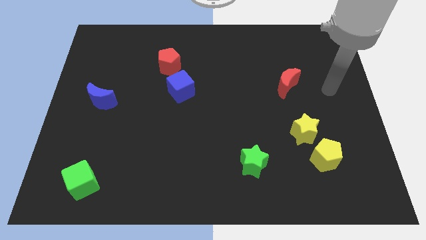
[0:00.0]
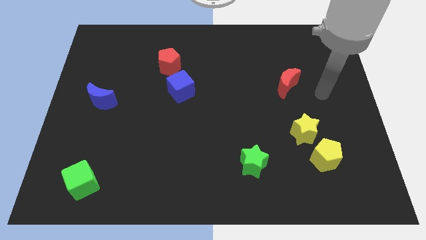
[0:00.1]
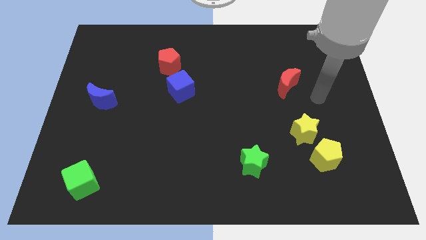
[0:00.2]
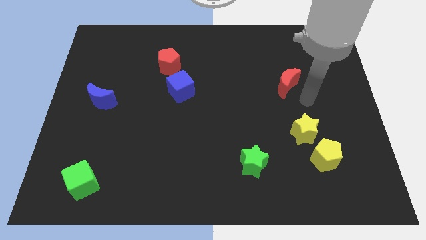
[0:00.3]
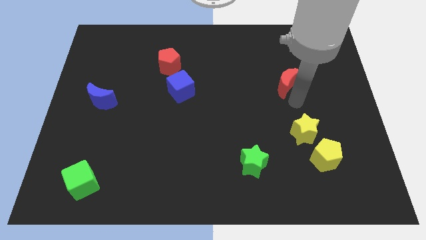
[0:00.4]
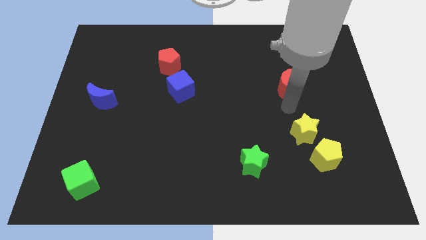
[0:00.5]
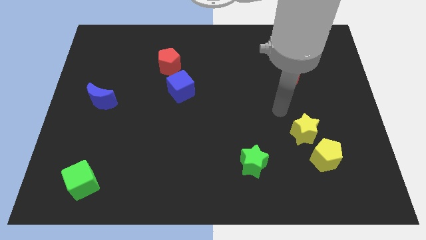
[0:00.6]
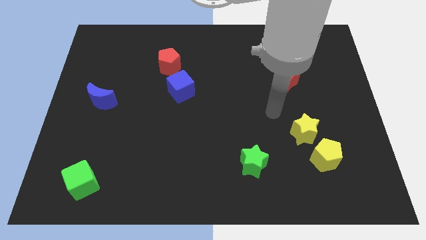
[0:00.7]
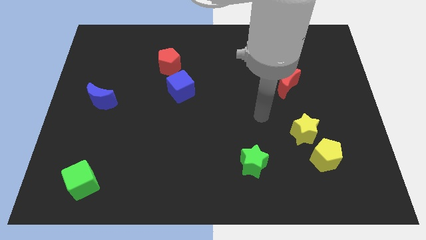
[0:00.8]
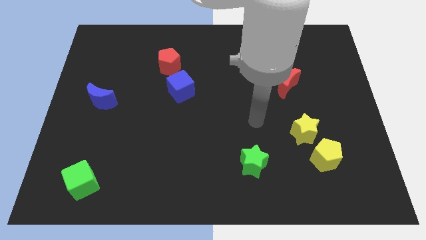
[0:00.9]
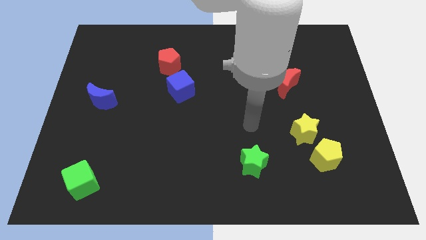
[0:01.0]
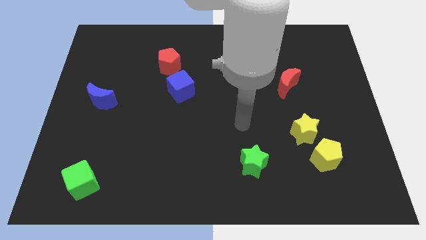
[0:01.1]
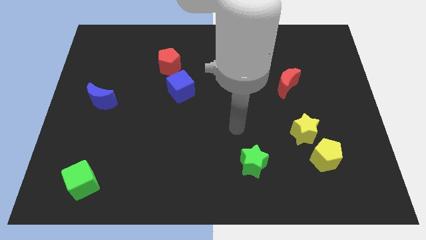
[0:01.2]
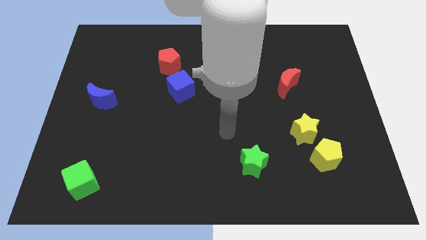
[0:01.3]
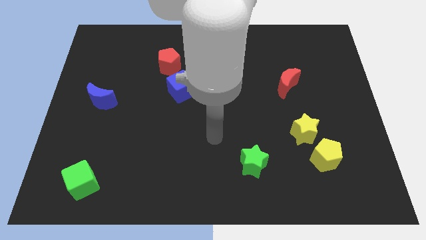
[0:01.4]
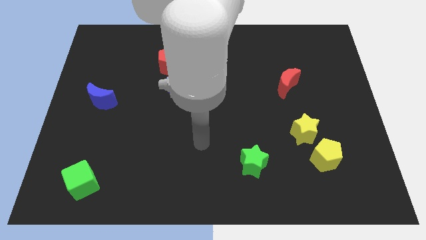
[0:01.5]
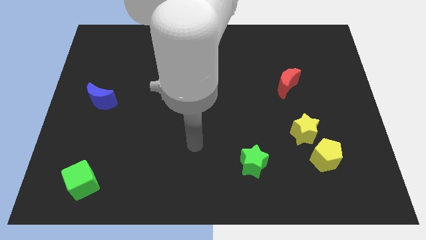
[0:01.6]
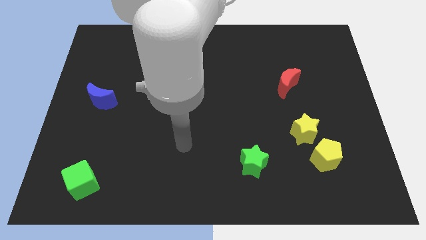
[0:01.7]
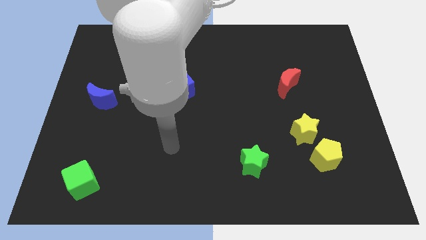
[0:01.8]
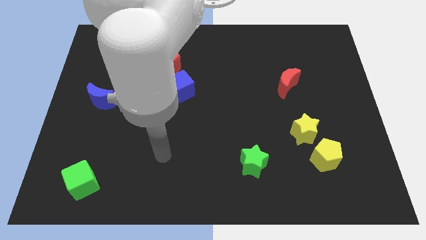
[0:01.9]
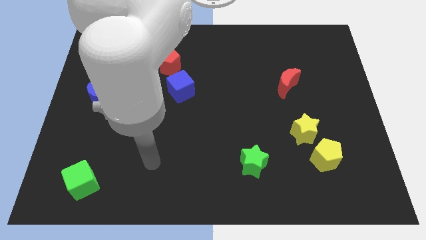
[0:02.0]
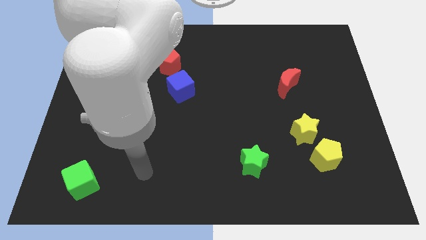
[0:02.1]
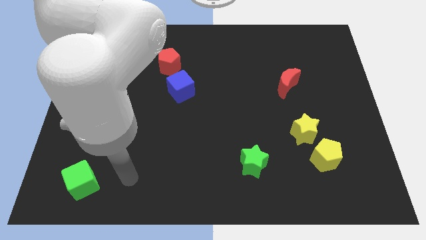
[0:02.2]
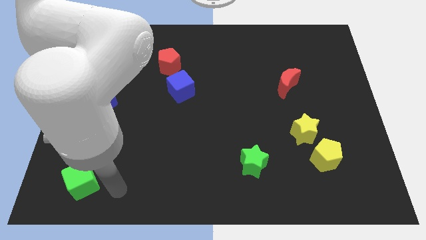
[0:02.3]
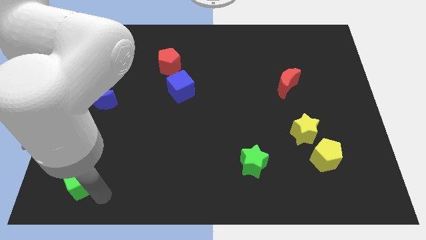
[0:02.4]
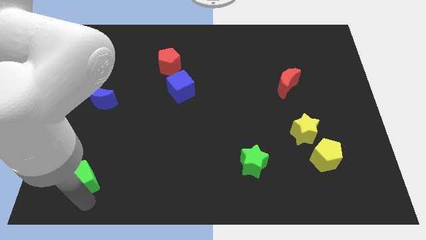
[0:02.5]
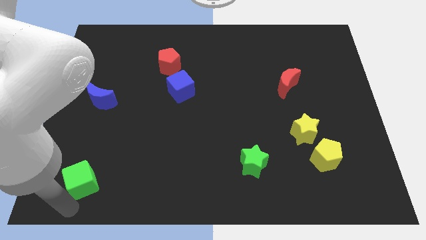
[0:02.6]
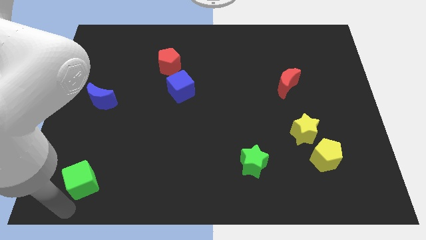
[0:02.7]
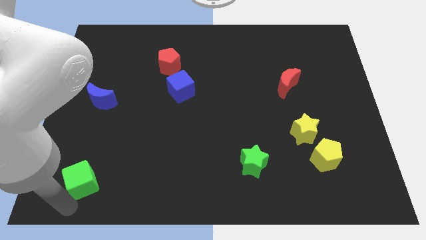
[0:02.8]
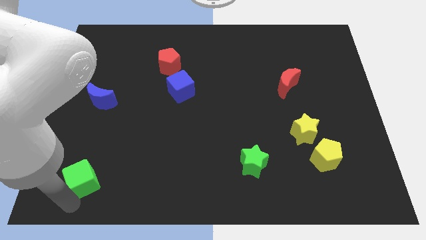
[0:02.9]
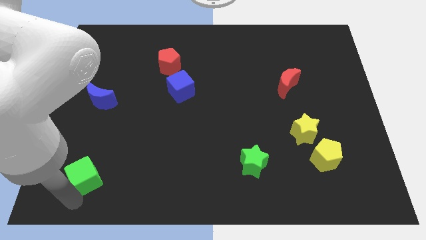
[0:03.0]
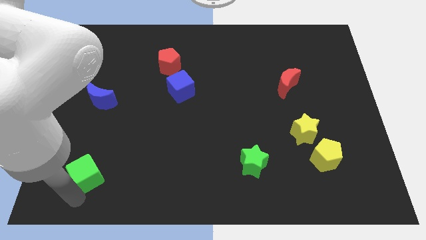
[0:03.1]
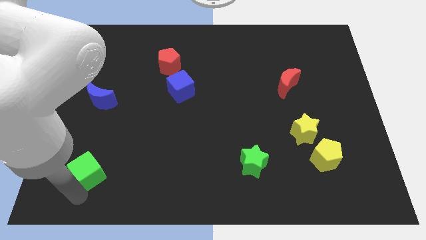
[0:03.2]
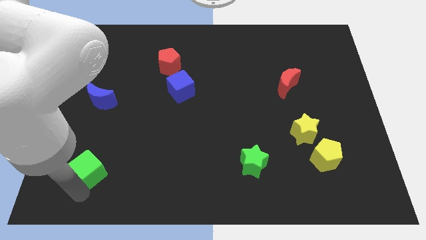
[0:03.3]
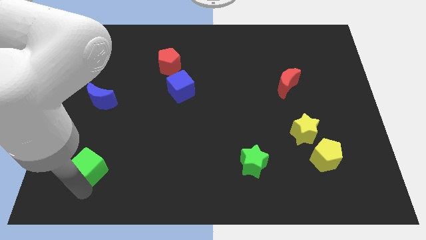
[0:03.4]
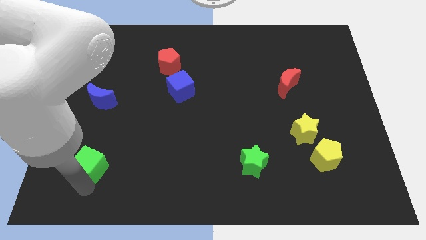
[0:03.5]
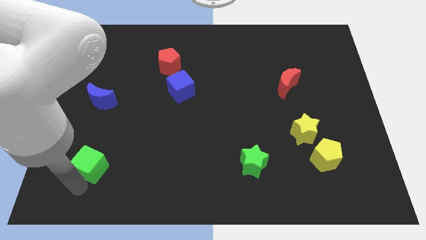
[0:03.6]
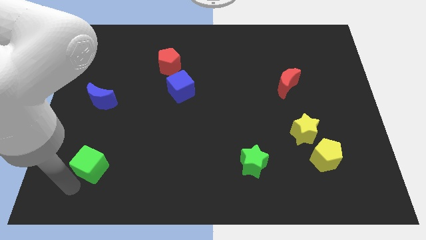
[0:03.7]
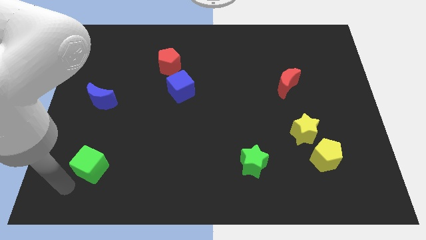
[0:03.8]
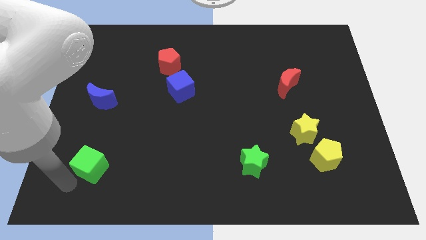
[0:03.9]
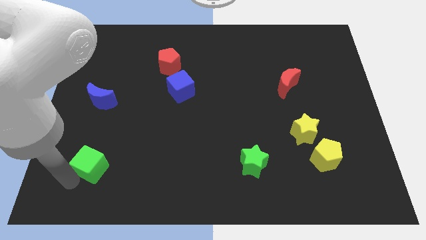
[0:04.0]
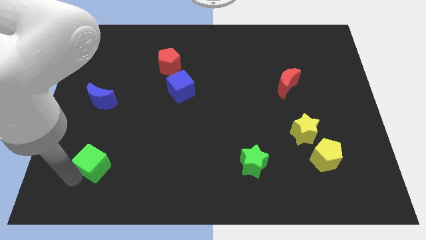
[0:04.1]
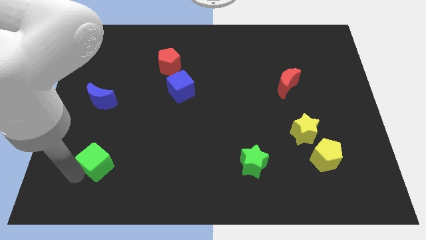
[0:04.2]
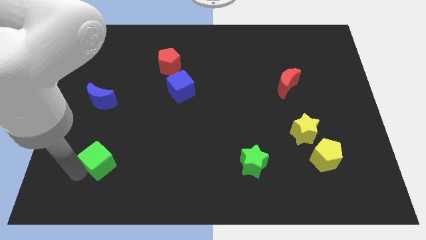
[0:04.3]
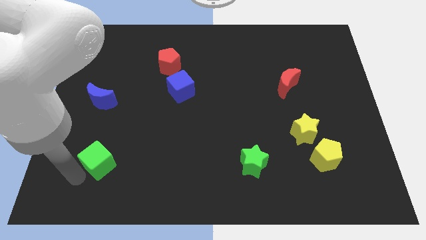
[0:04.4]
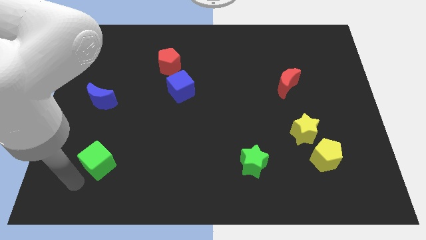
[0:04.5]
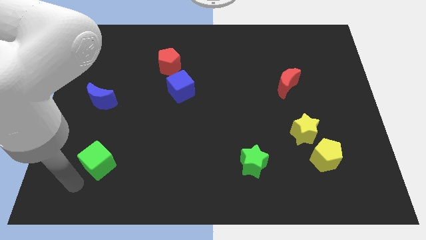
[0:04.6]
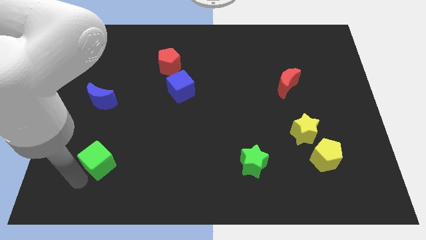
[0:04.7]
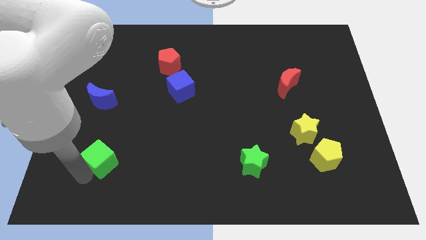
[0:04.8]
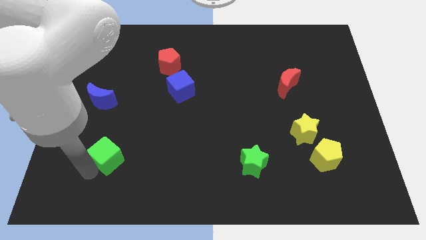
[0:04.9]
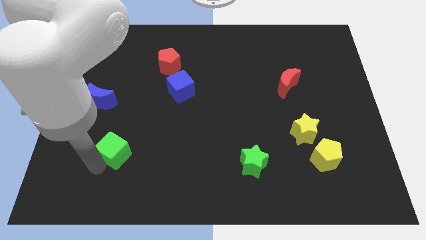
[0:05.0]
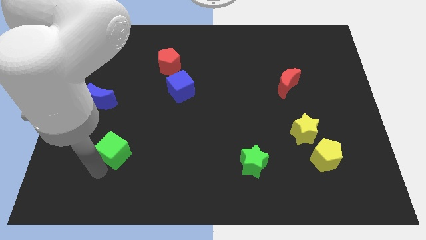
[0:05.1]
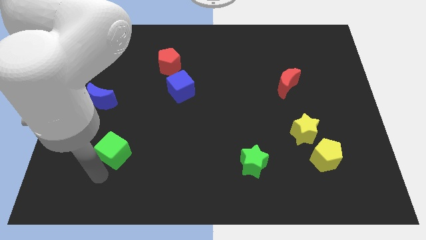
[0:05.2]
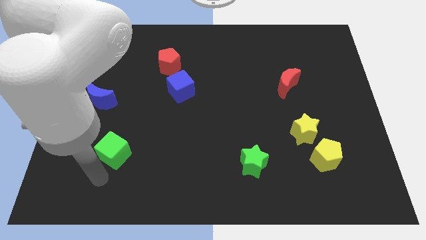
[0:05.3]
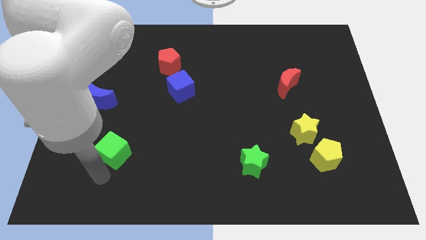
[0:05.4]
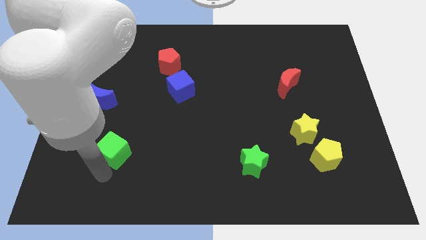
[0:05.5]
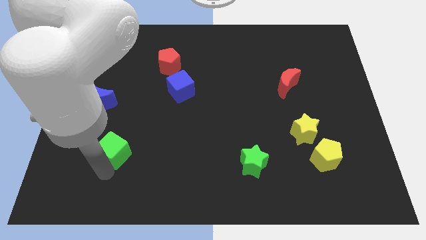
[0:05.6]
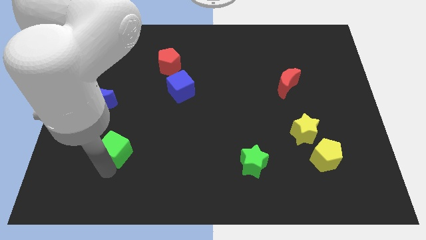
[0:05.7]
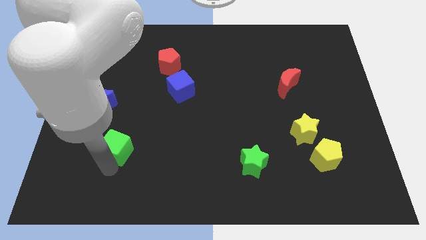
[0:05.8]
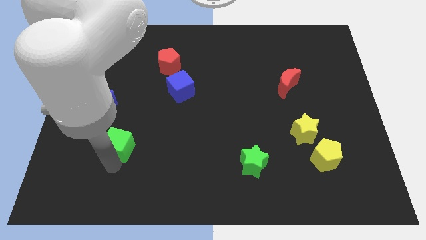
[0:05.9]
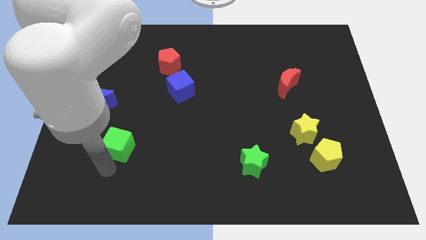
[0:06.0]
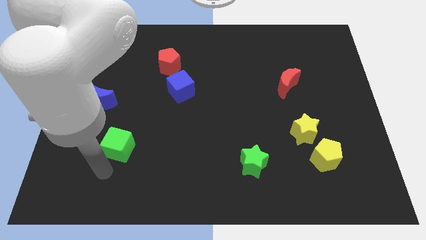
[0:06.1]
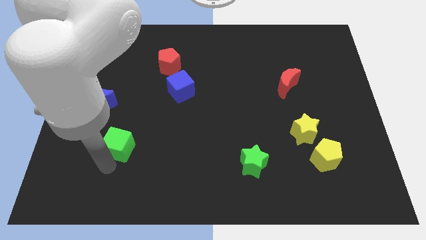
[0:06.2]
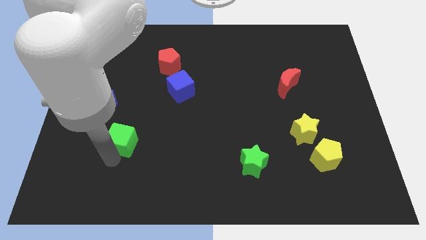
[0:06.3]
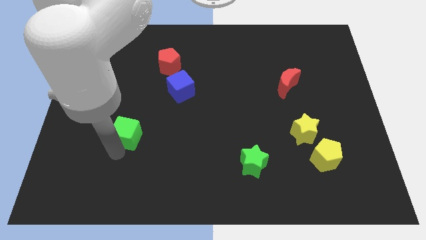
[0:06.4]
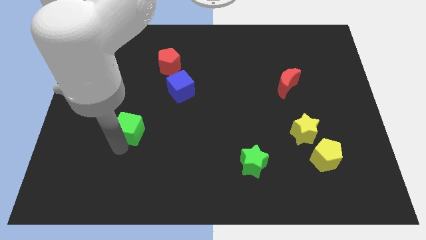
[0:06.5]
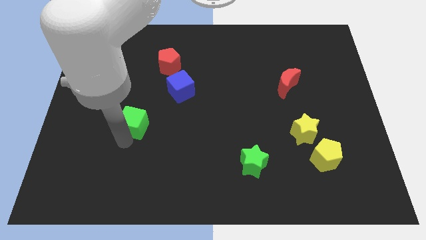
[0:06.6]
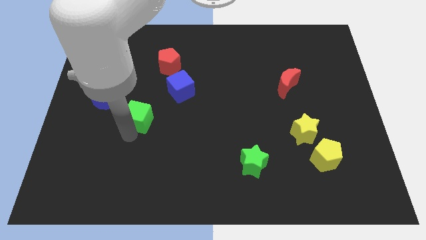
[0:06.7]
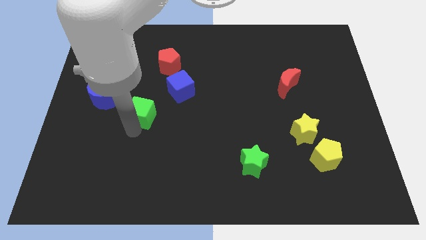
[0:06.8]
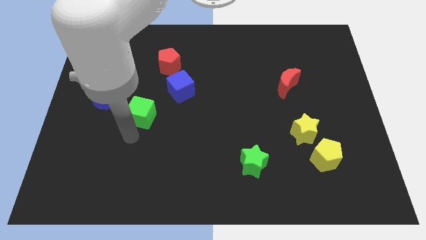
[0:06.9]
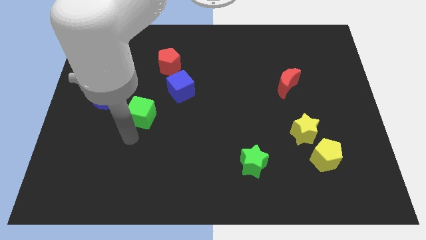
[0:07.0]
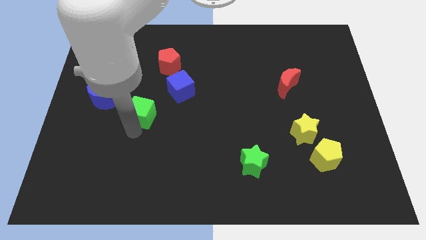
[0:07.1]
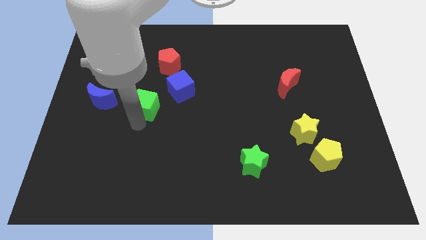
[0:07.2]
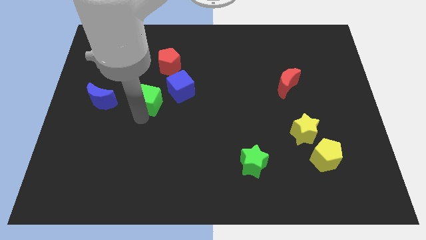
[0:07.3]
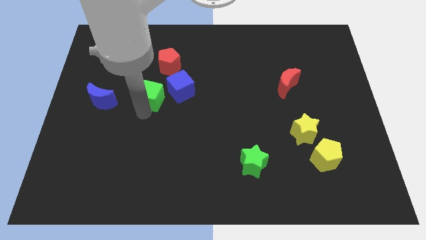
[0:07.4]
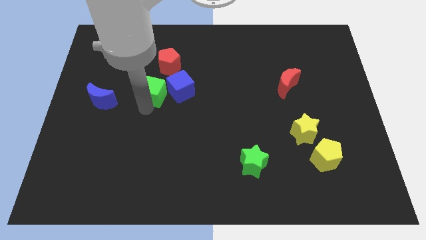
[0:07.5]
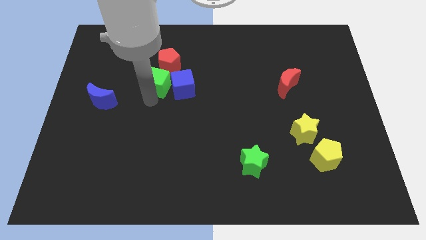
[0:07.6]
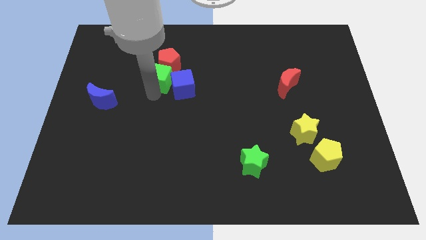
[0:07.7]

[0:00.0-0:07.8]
push the green cube towards the red pentagon

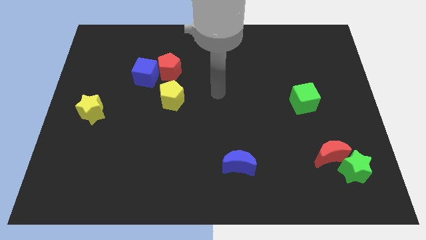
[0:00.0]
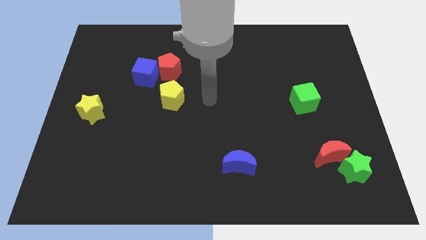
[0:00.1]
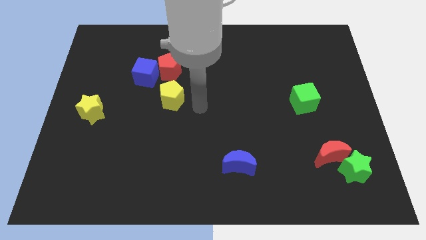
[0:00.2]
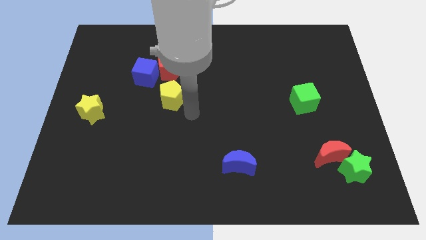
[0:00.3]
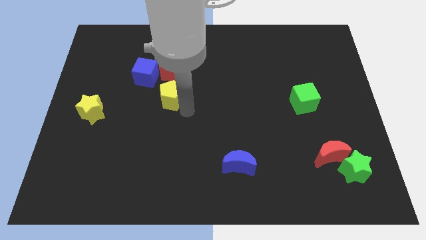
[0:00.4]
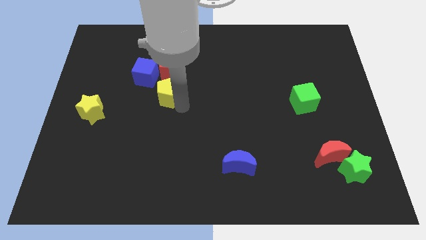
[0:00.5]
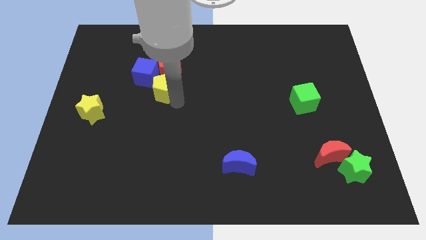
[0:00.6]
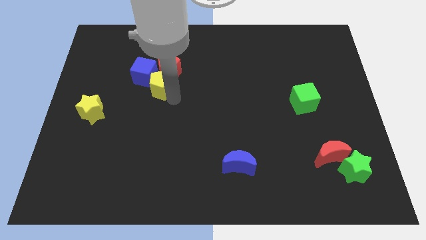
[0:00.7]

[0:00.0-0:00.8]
push the yellow pentagon towards the blue cube
